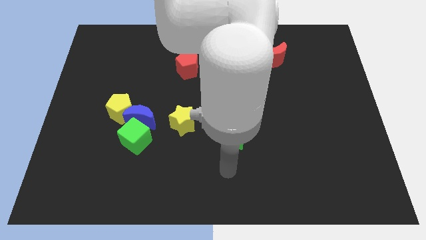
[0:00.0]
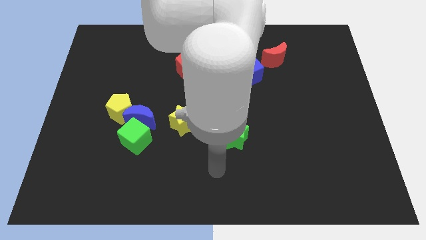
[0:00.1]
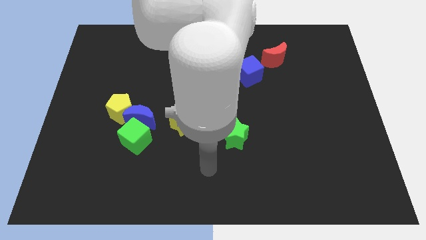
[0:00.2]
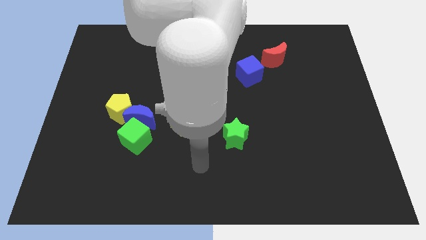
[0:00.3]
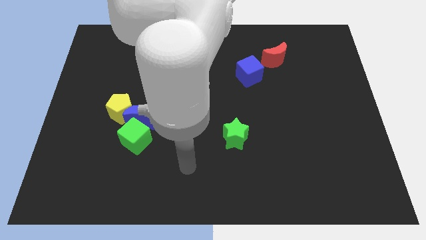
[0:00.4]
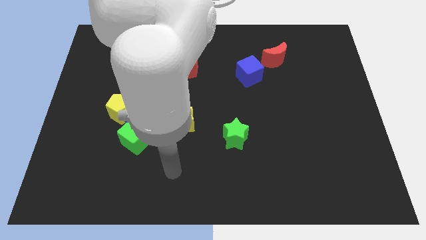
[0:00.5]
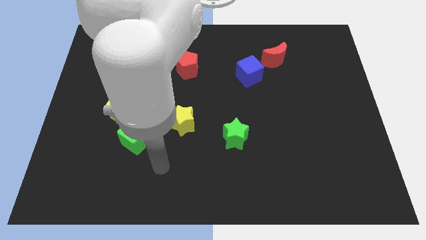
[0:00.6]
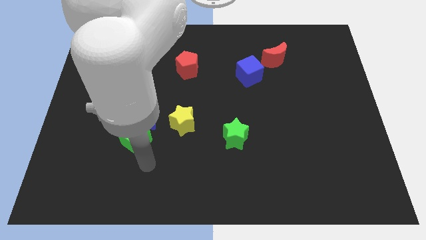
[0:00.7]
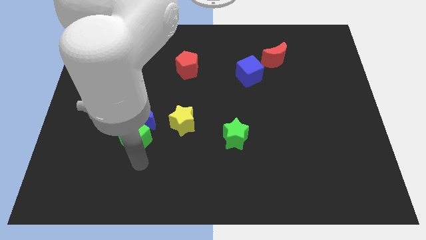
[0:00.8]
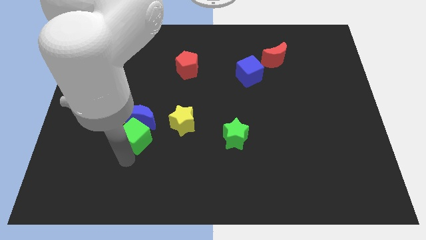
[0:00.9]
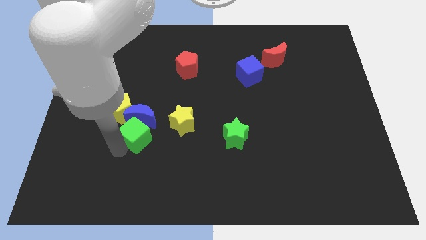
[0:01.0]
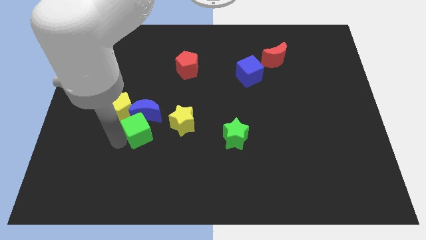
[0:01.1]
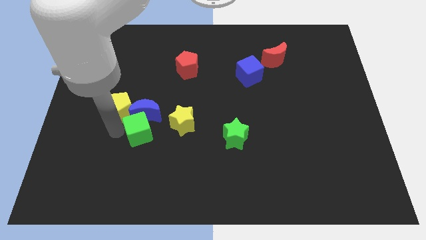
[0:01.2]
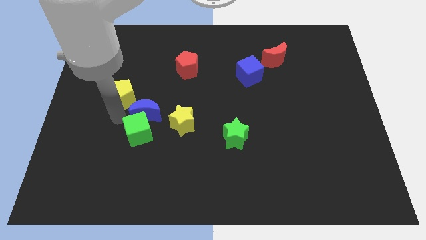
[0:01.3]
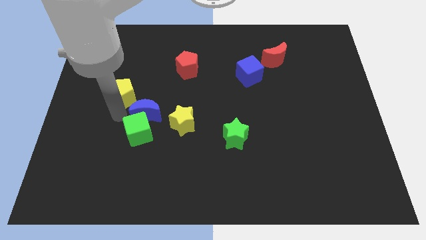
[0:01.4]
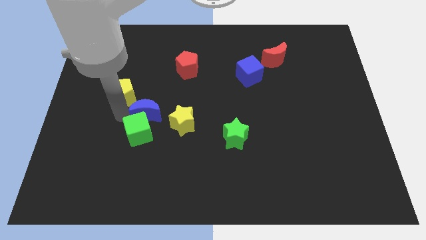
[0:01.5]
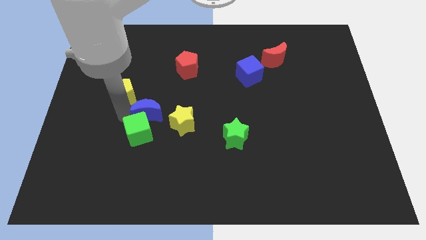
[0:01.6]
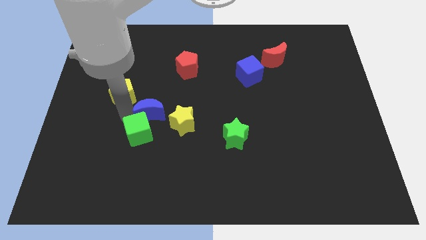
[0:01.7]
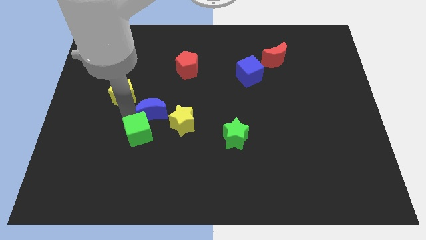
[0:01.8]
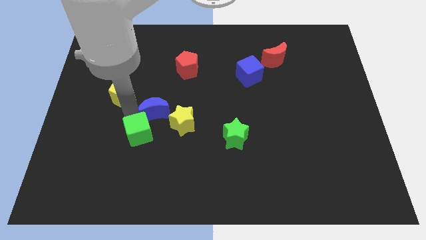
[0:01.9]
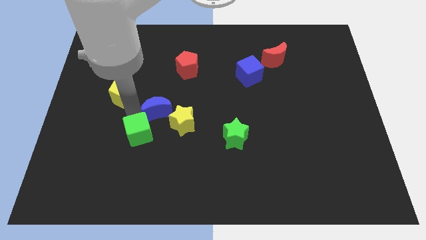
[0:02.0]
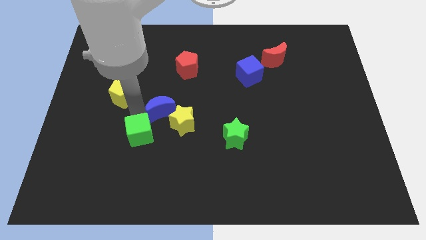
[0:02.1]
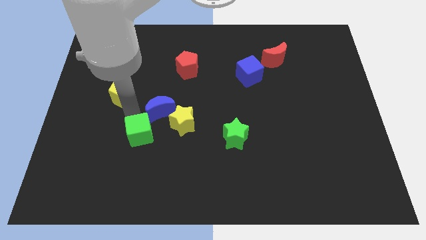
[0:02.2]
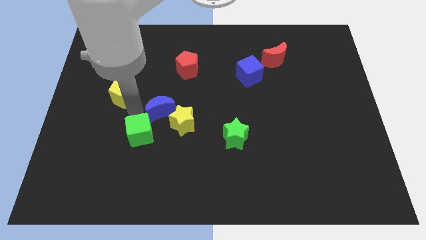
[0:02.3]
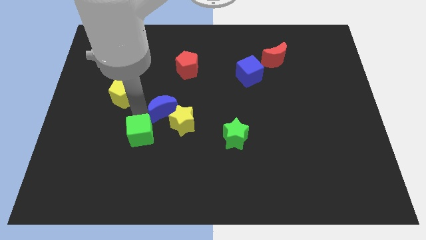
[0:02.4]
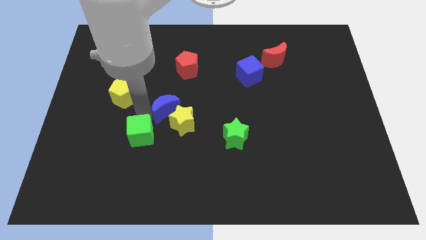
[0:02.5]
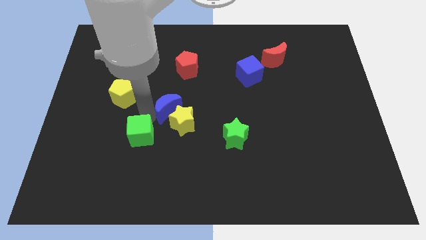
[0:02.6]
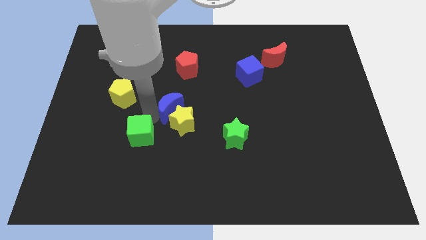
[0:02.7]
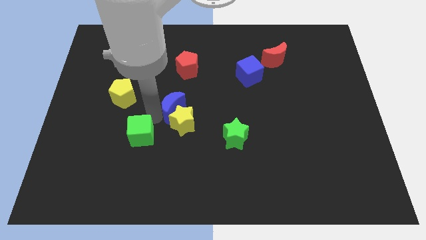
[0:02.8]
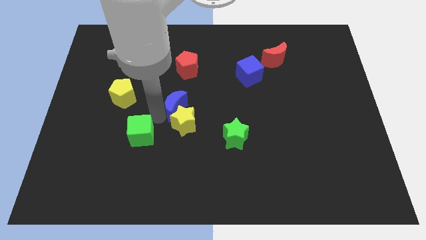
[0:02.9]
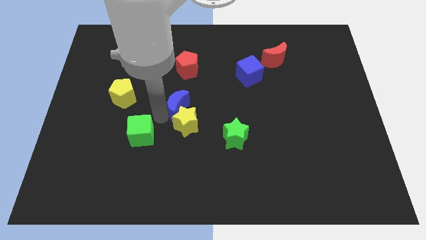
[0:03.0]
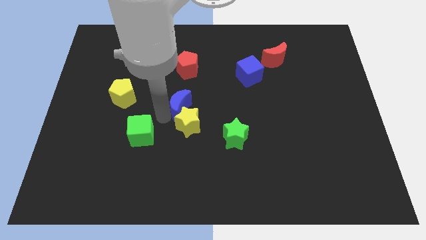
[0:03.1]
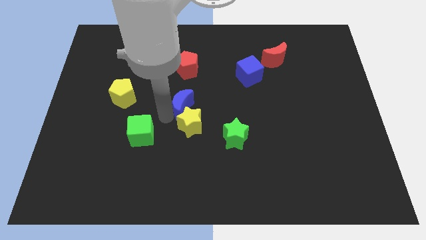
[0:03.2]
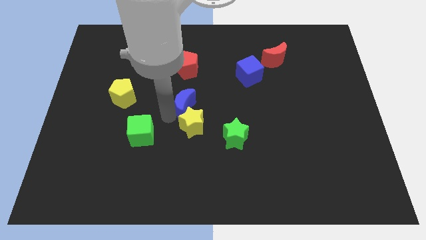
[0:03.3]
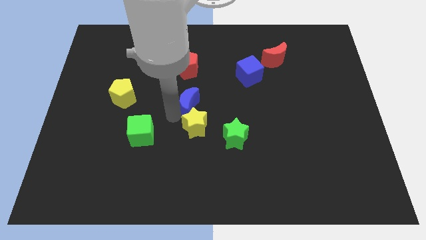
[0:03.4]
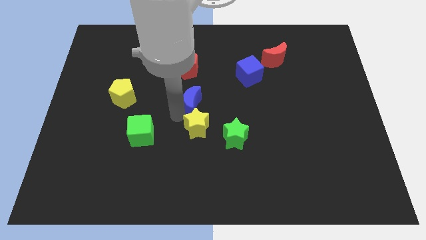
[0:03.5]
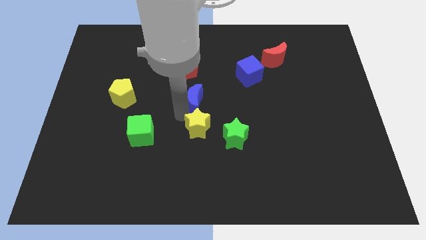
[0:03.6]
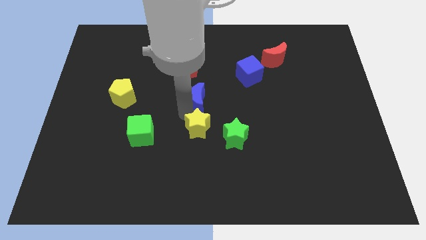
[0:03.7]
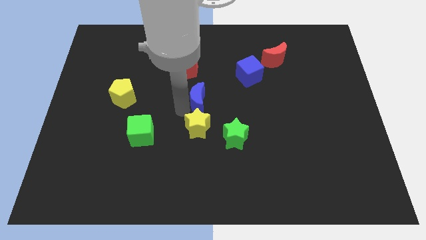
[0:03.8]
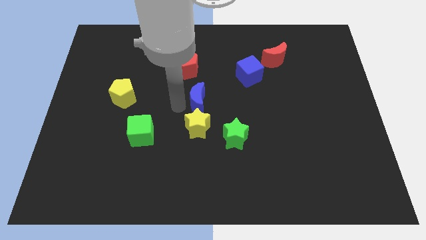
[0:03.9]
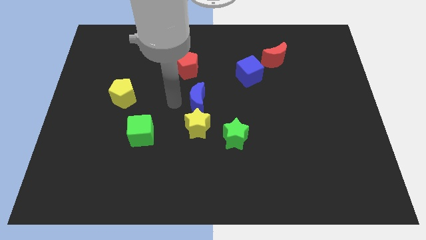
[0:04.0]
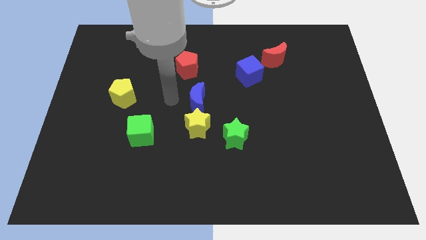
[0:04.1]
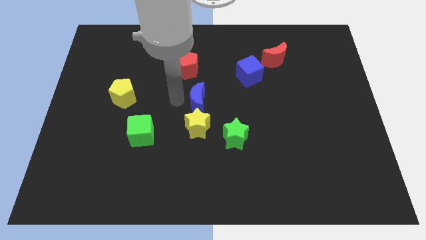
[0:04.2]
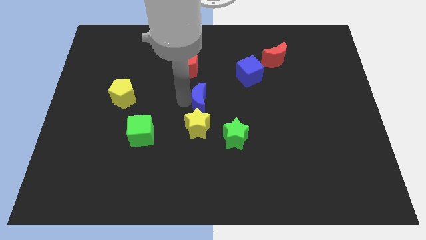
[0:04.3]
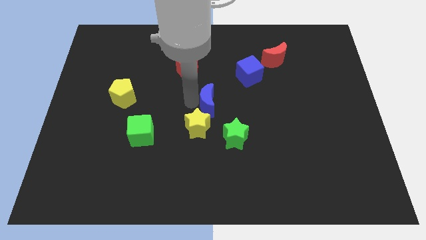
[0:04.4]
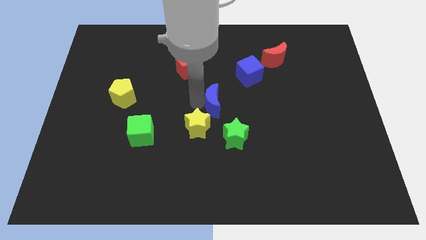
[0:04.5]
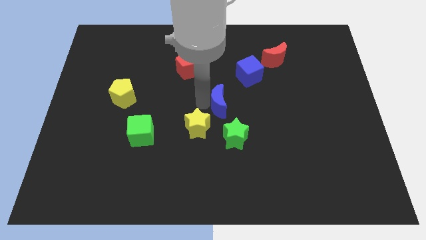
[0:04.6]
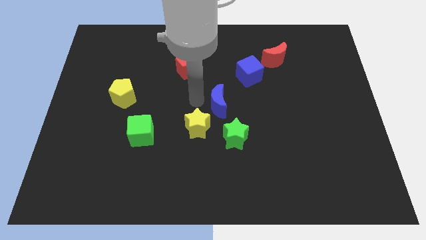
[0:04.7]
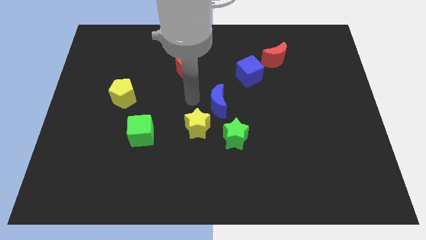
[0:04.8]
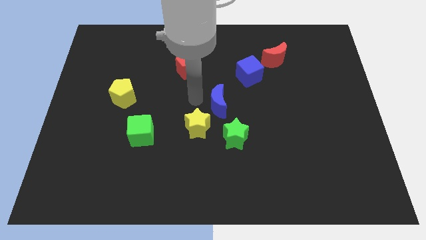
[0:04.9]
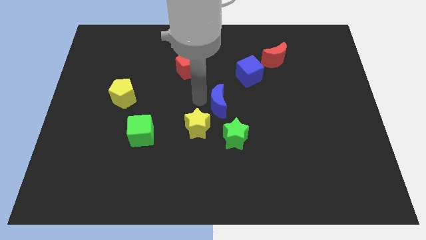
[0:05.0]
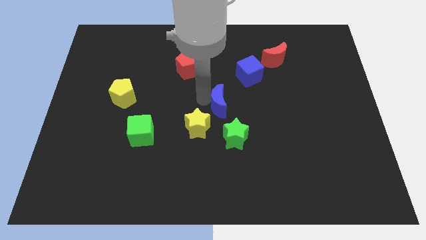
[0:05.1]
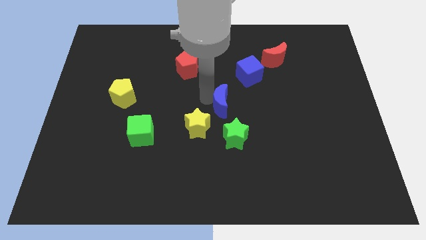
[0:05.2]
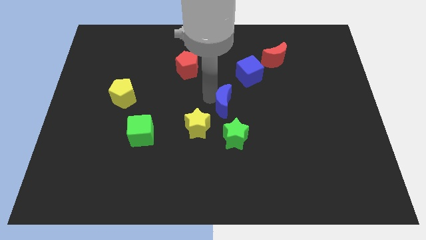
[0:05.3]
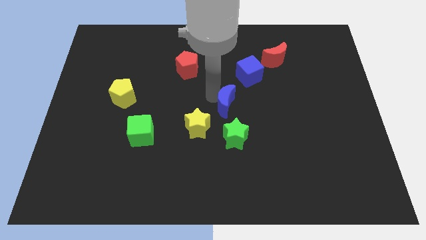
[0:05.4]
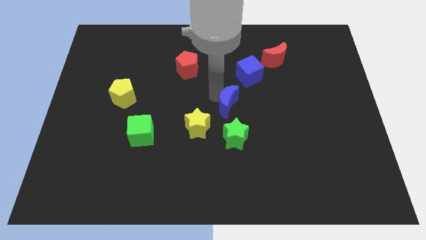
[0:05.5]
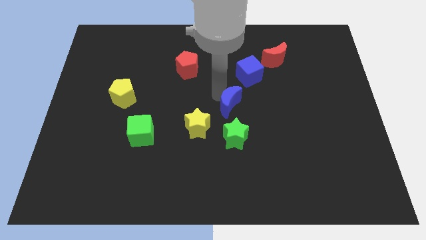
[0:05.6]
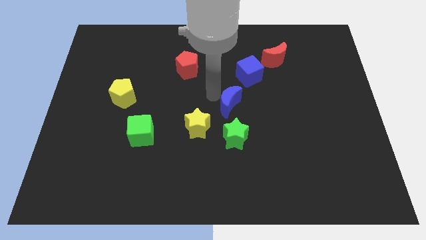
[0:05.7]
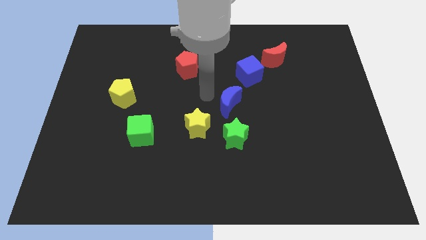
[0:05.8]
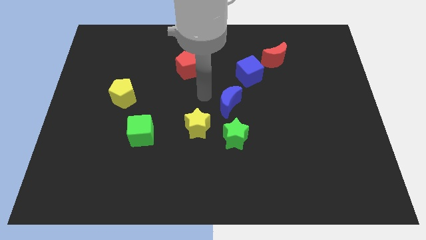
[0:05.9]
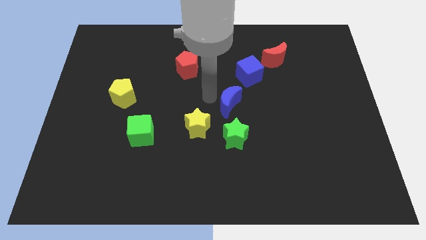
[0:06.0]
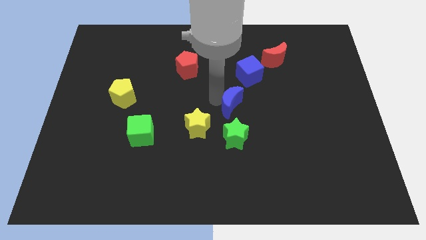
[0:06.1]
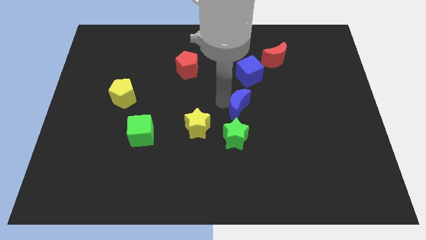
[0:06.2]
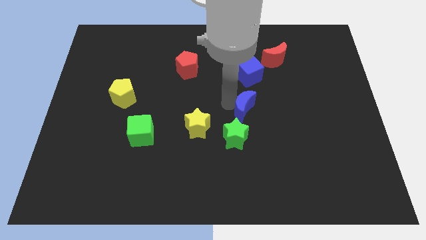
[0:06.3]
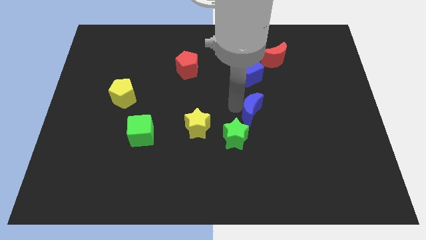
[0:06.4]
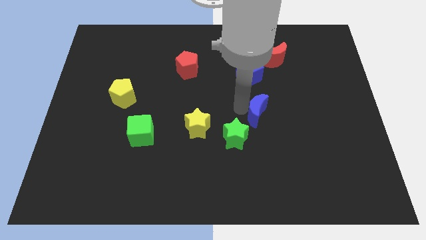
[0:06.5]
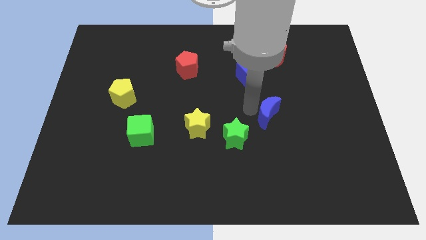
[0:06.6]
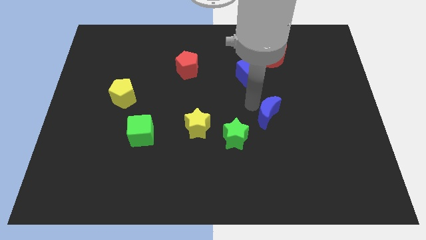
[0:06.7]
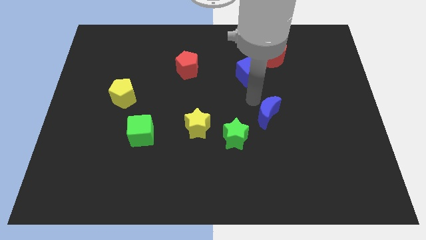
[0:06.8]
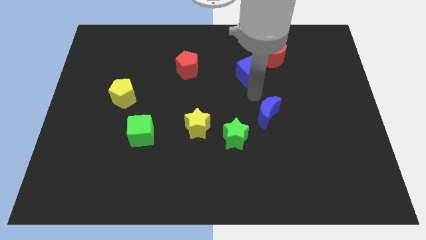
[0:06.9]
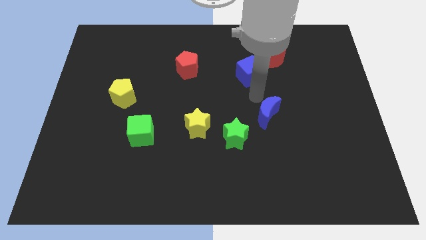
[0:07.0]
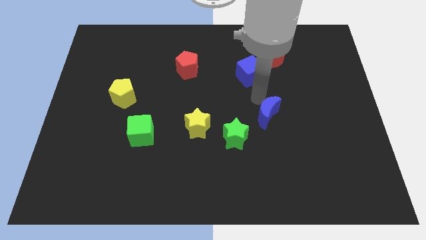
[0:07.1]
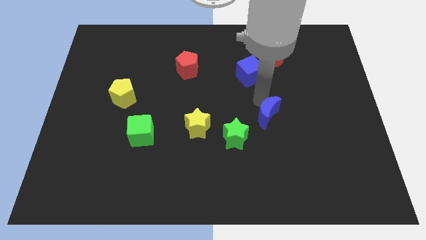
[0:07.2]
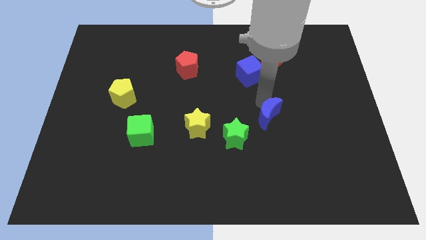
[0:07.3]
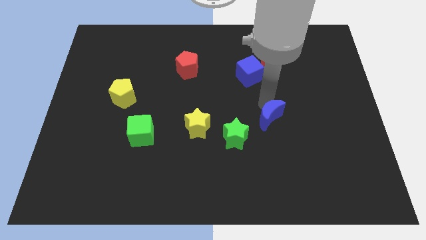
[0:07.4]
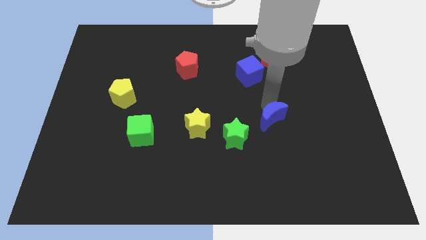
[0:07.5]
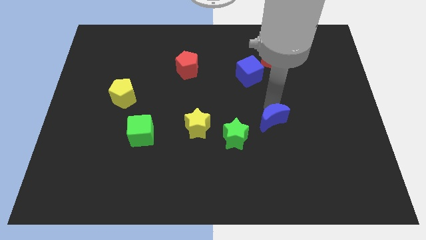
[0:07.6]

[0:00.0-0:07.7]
push the blue moon just right of the green star
